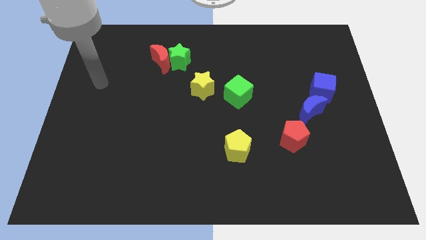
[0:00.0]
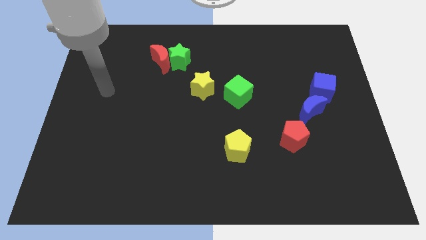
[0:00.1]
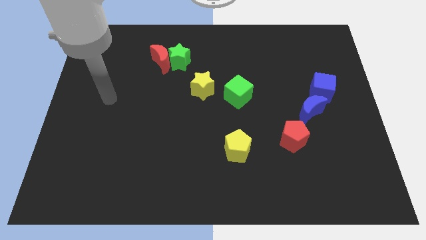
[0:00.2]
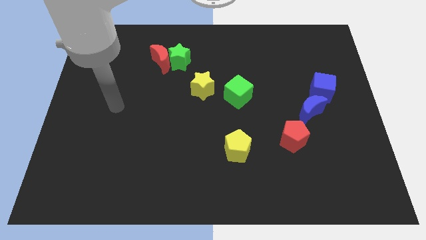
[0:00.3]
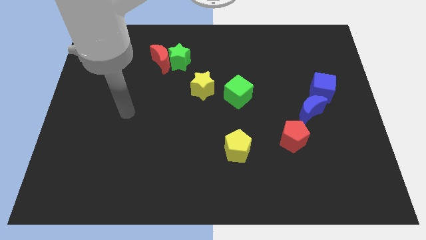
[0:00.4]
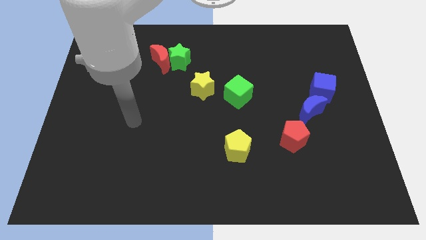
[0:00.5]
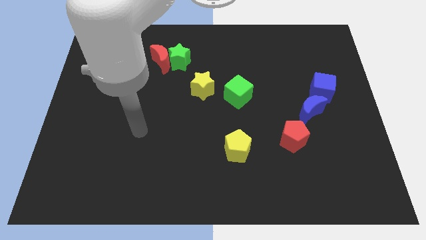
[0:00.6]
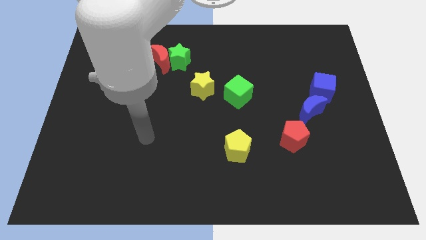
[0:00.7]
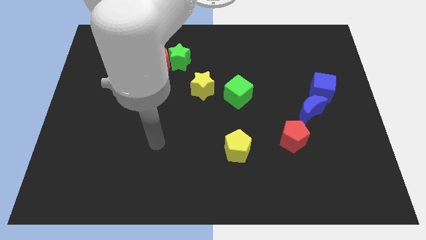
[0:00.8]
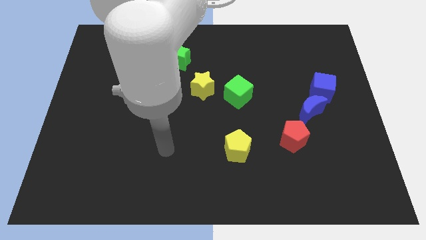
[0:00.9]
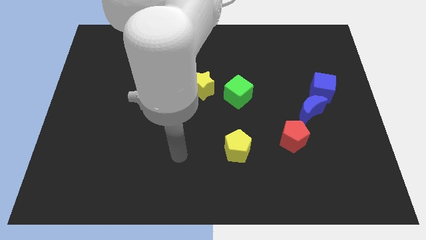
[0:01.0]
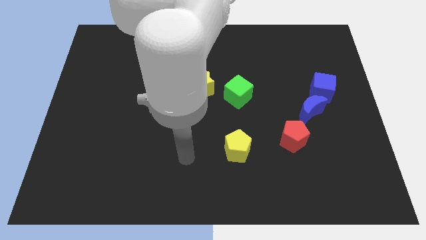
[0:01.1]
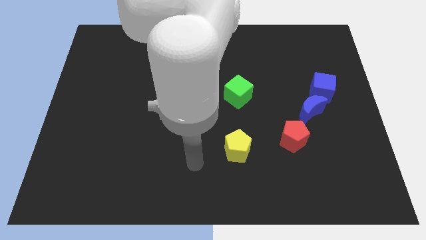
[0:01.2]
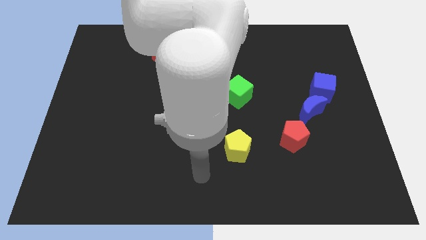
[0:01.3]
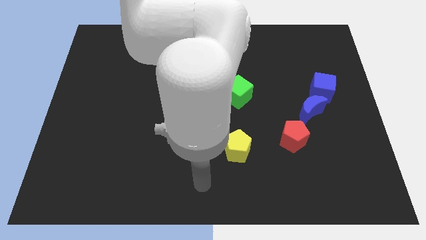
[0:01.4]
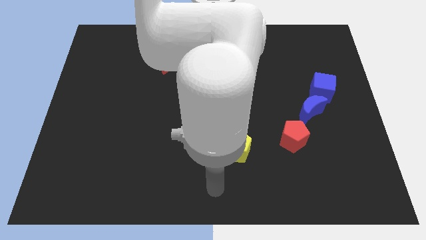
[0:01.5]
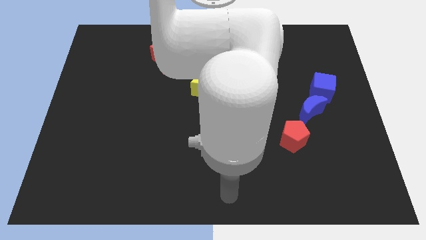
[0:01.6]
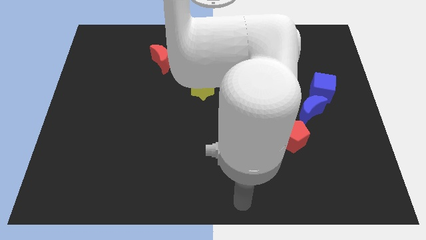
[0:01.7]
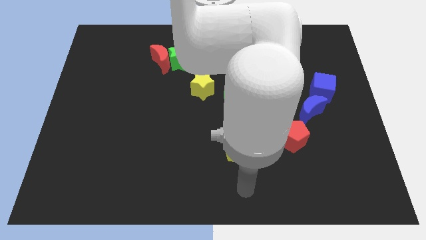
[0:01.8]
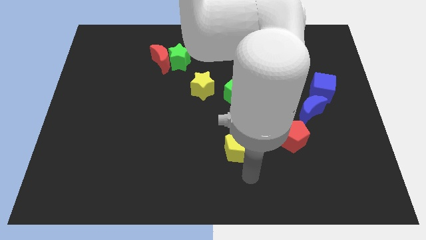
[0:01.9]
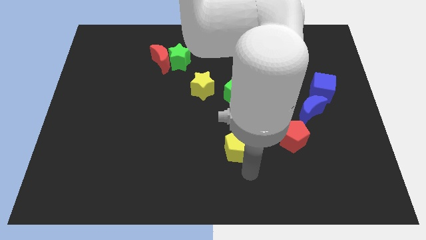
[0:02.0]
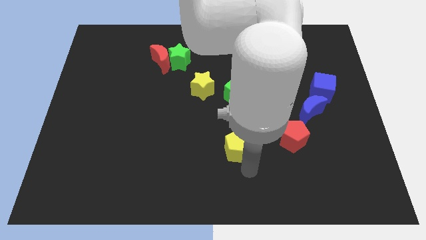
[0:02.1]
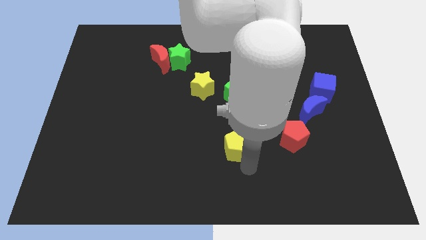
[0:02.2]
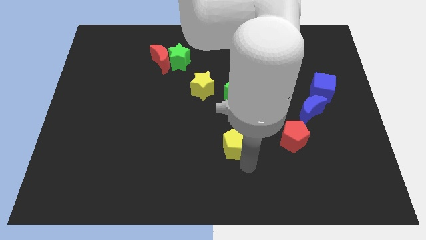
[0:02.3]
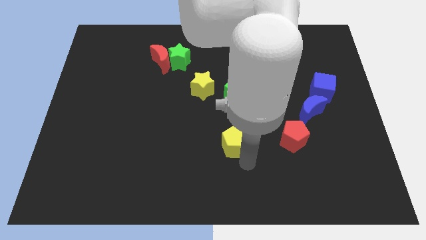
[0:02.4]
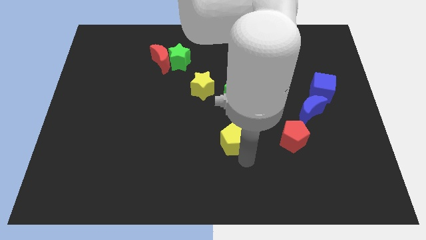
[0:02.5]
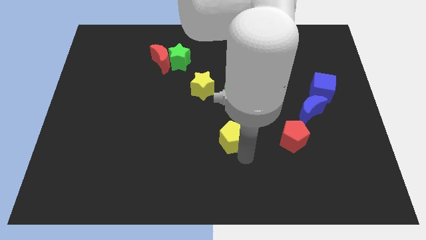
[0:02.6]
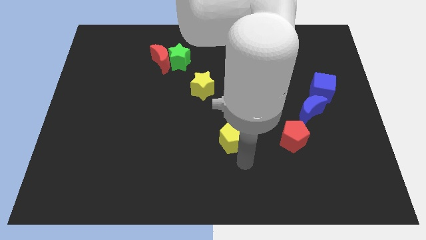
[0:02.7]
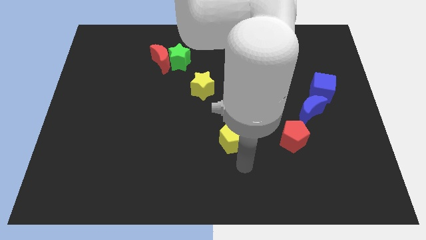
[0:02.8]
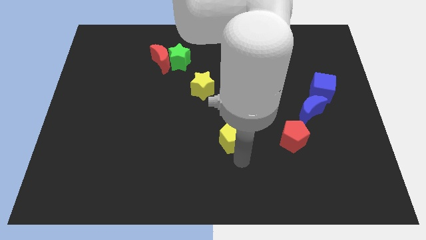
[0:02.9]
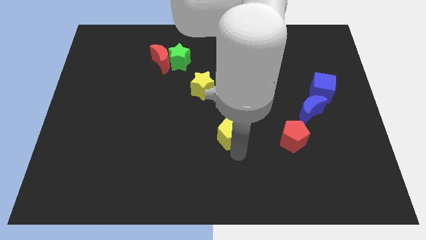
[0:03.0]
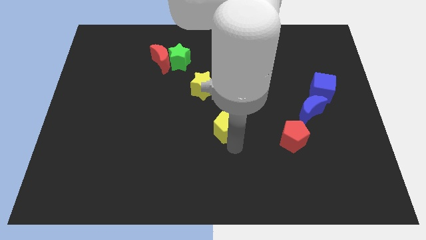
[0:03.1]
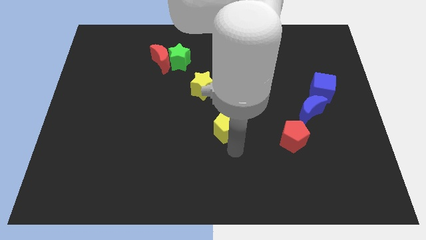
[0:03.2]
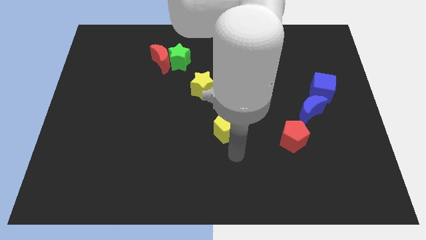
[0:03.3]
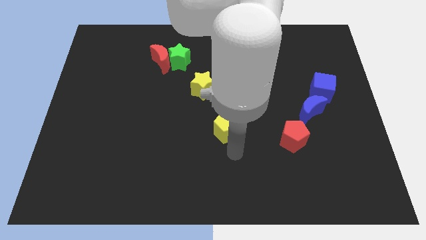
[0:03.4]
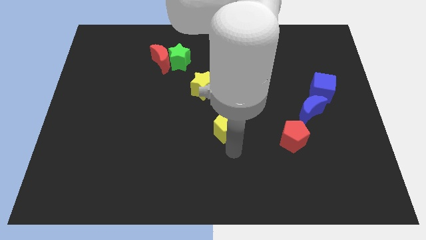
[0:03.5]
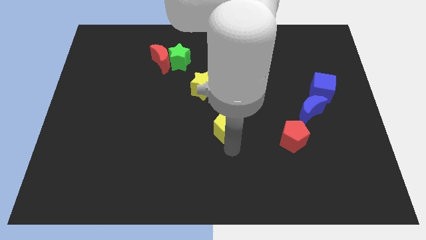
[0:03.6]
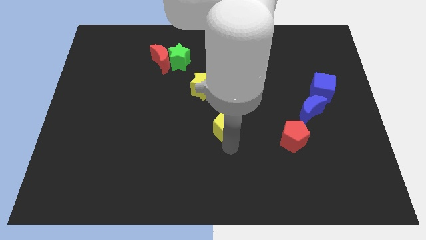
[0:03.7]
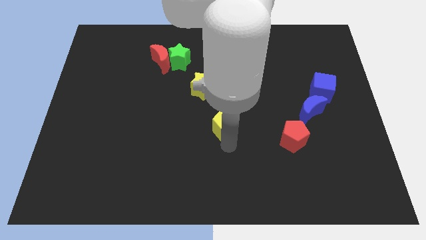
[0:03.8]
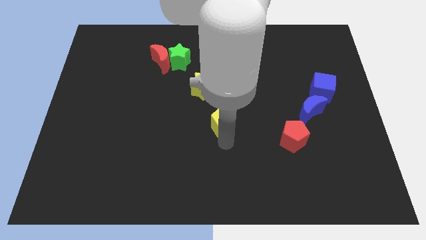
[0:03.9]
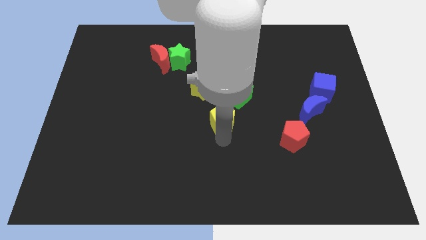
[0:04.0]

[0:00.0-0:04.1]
slide the yellow pentagon up slightly

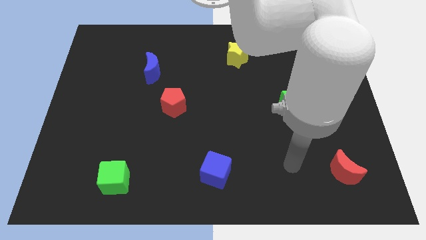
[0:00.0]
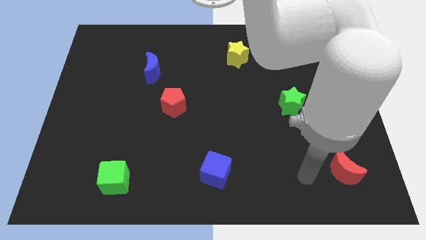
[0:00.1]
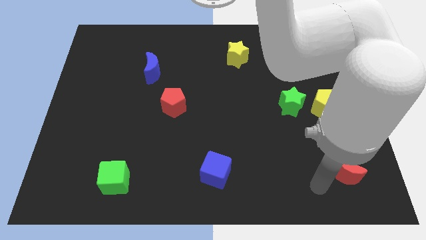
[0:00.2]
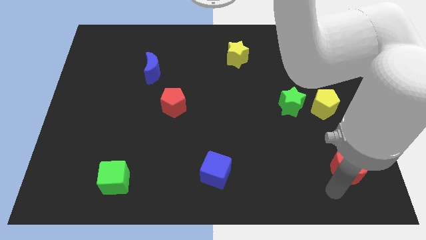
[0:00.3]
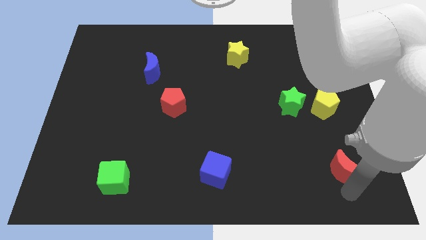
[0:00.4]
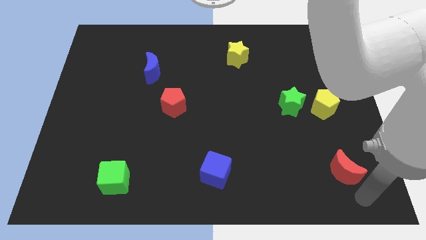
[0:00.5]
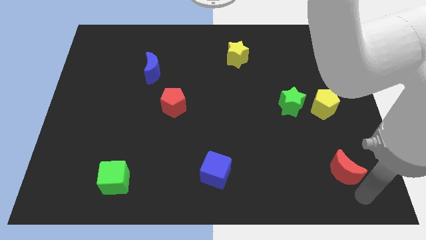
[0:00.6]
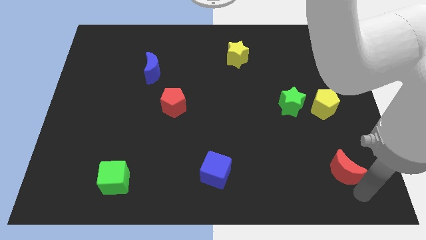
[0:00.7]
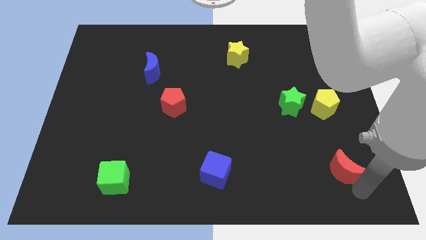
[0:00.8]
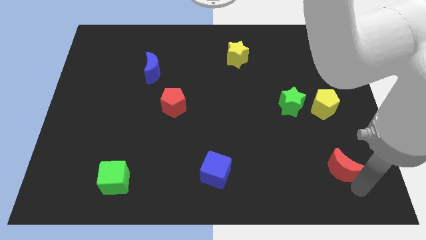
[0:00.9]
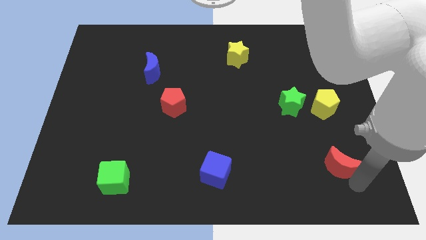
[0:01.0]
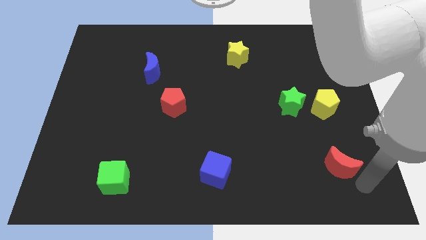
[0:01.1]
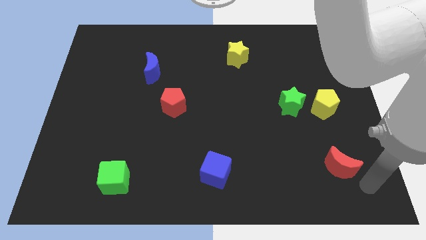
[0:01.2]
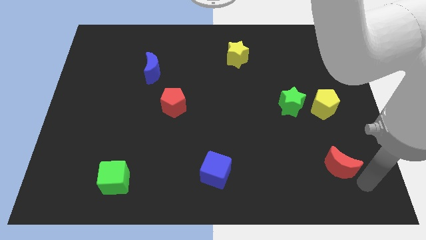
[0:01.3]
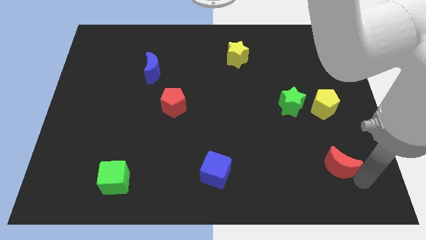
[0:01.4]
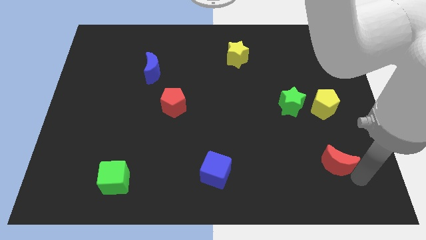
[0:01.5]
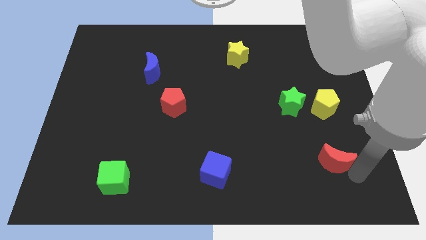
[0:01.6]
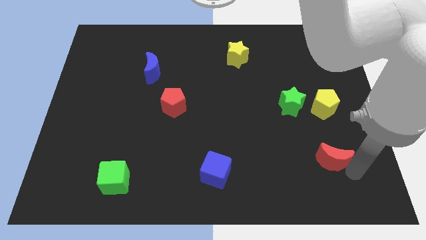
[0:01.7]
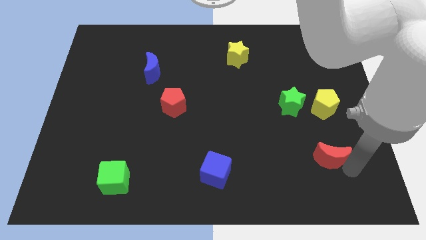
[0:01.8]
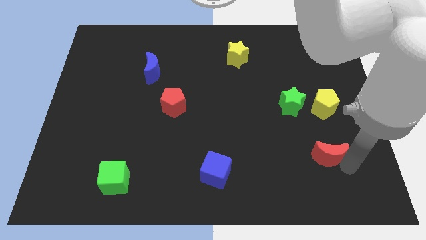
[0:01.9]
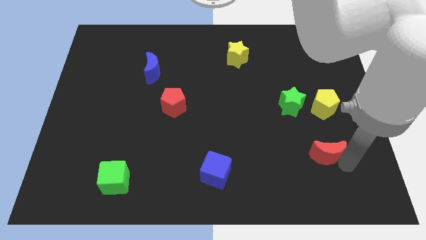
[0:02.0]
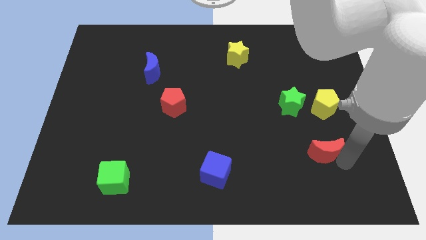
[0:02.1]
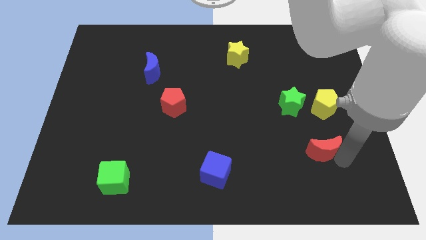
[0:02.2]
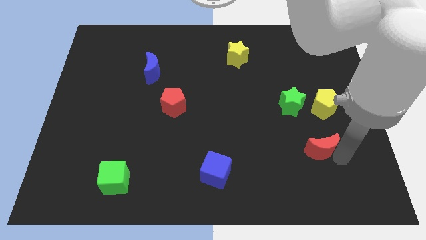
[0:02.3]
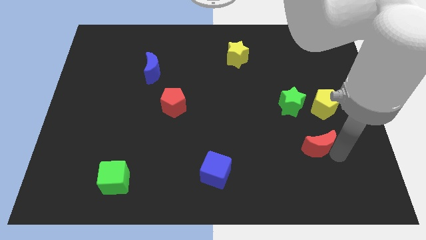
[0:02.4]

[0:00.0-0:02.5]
move the red moon a little bit up and left

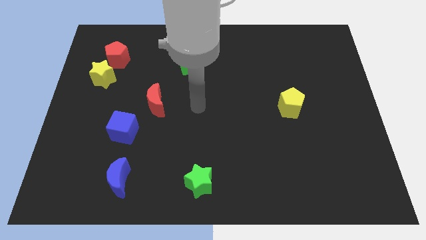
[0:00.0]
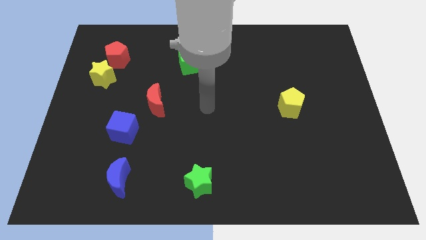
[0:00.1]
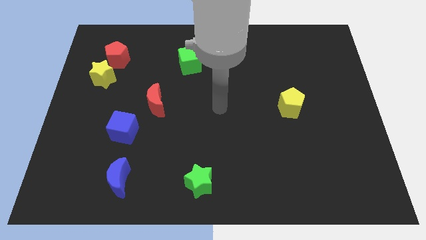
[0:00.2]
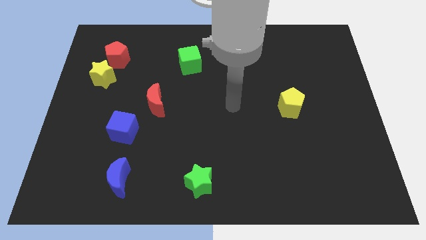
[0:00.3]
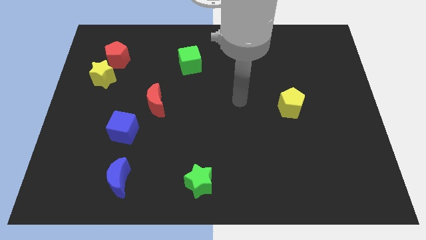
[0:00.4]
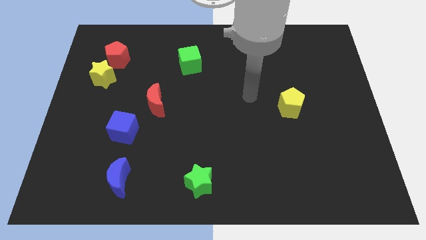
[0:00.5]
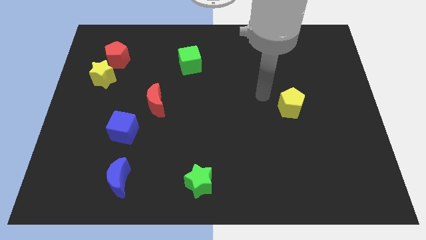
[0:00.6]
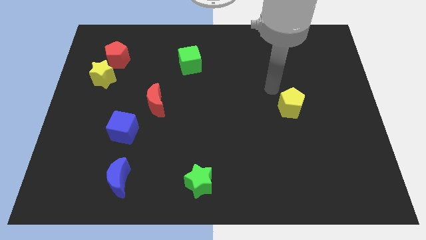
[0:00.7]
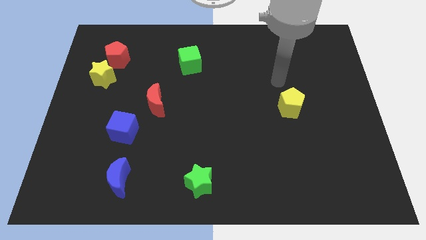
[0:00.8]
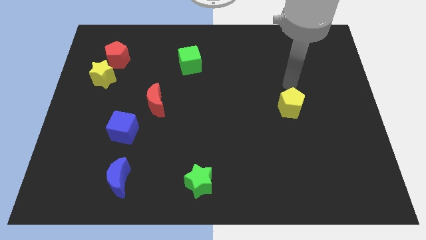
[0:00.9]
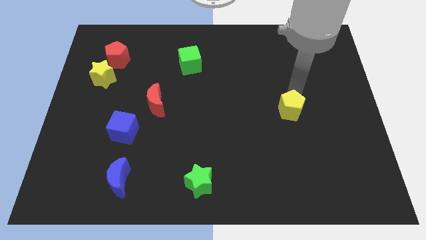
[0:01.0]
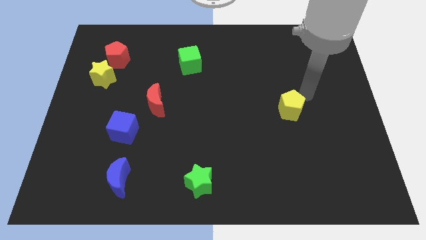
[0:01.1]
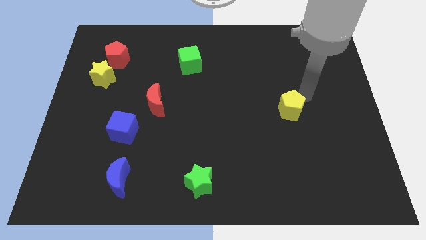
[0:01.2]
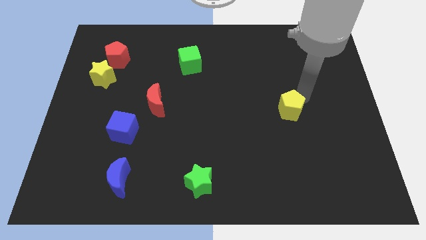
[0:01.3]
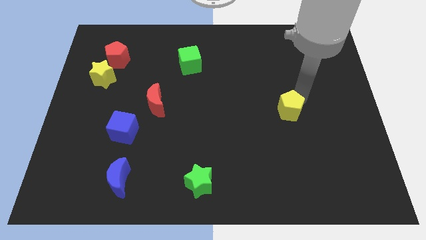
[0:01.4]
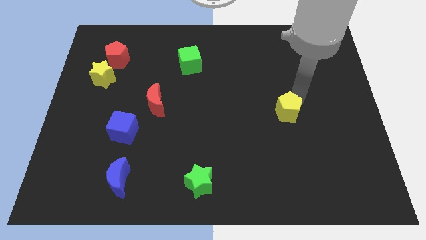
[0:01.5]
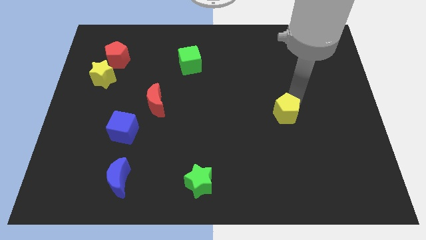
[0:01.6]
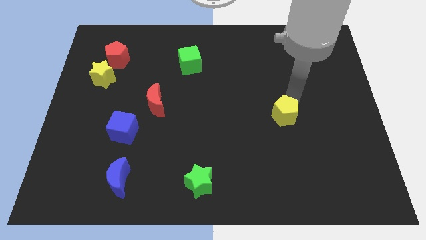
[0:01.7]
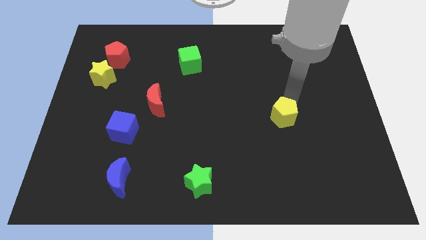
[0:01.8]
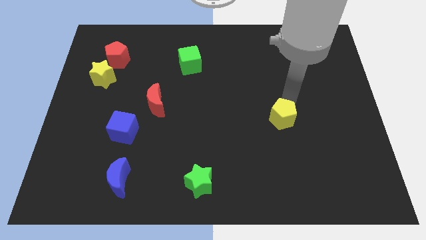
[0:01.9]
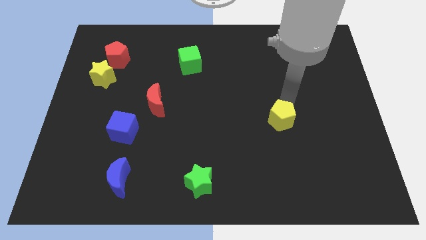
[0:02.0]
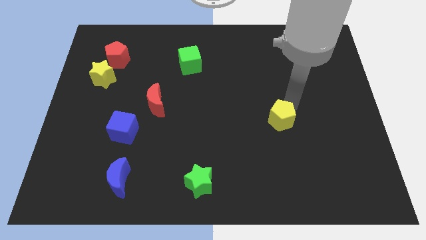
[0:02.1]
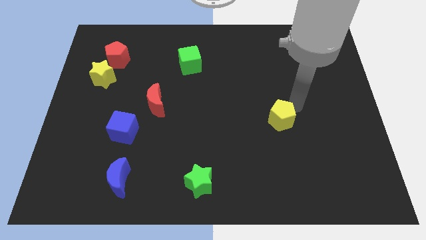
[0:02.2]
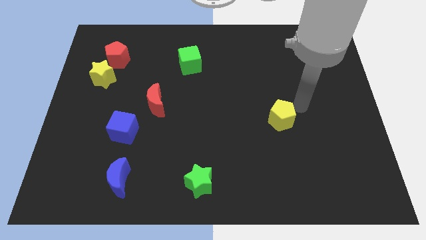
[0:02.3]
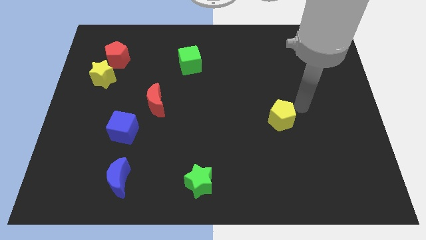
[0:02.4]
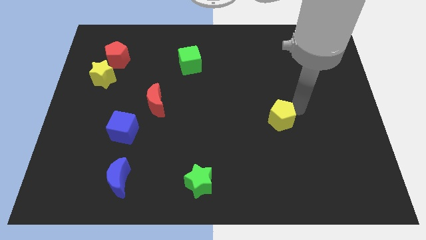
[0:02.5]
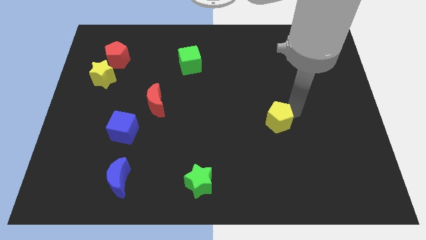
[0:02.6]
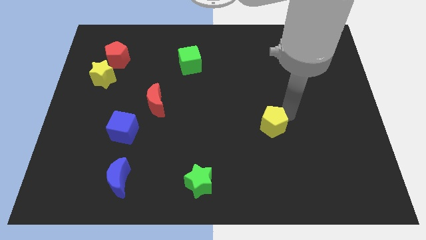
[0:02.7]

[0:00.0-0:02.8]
slightly move the yellow pentagon downwards and then to the left
